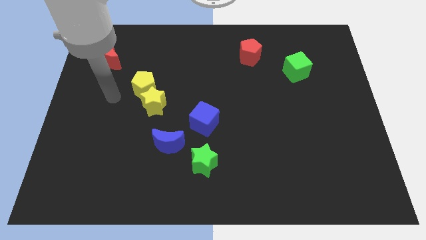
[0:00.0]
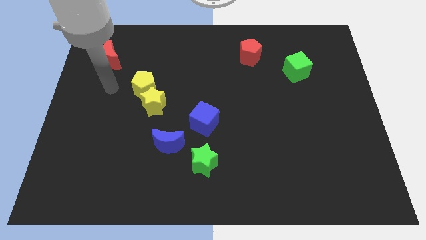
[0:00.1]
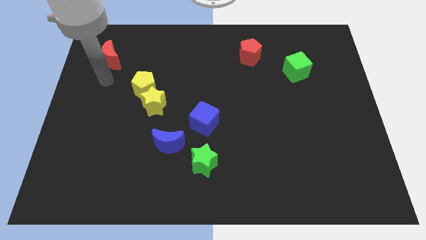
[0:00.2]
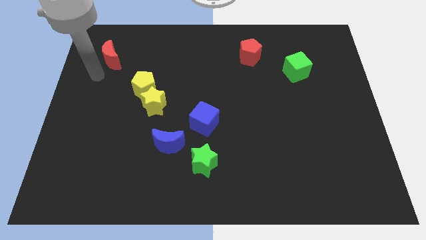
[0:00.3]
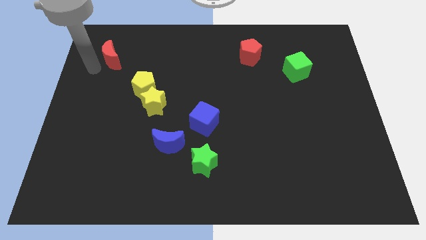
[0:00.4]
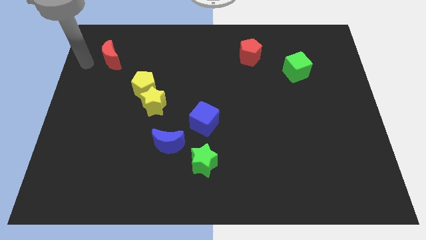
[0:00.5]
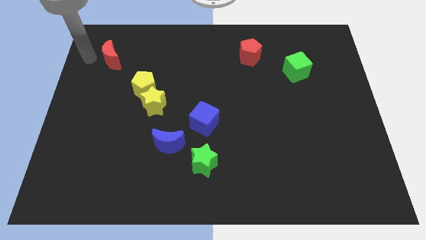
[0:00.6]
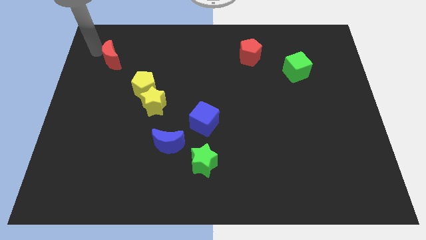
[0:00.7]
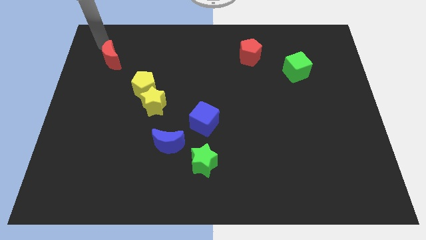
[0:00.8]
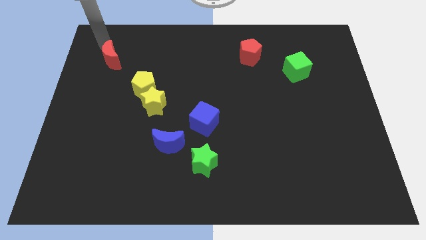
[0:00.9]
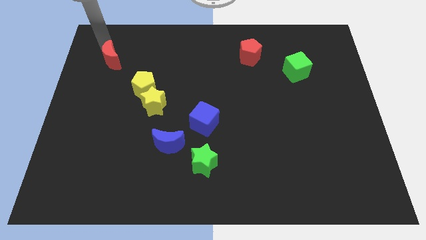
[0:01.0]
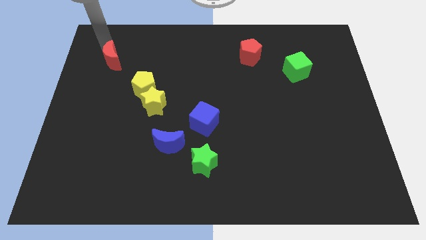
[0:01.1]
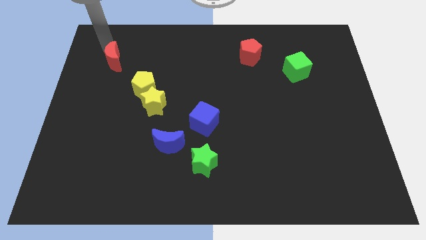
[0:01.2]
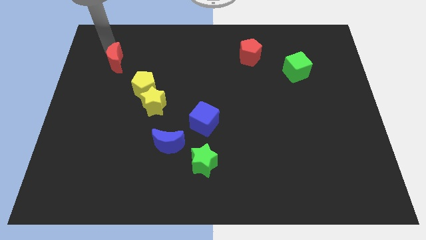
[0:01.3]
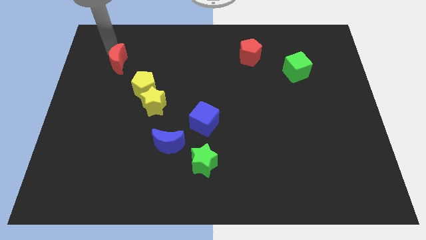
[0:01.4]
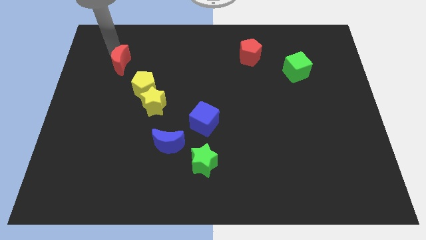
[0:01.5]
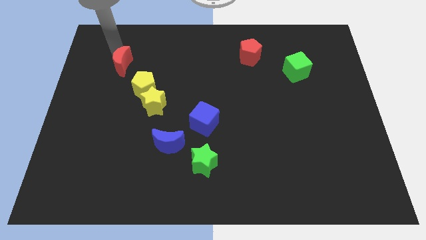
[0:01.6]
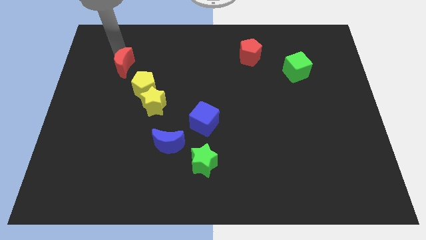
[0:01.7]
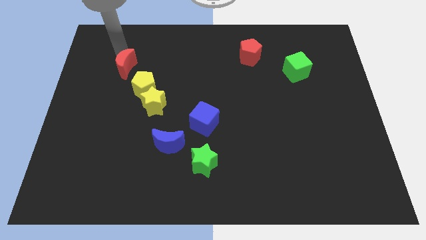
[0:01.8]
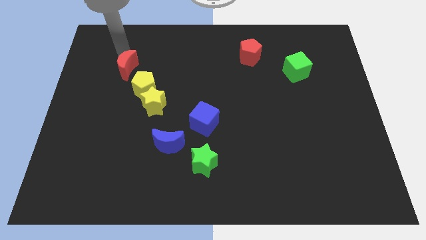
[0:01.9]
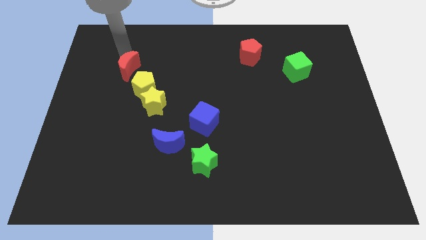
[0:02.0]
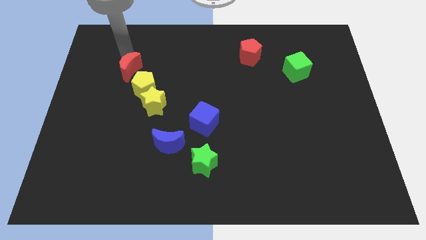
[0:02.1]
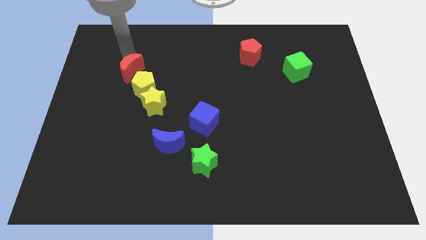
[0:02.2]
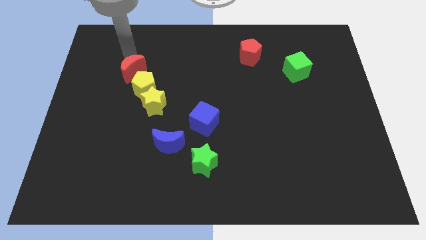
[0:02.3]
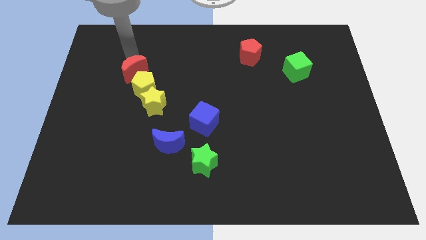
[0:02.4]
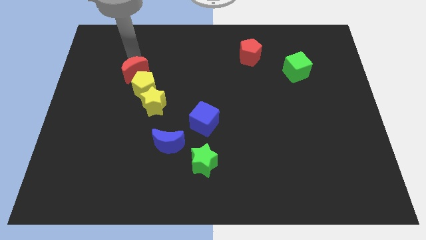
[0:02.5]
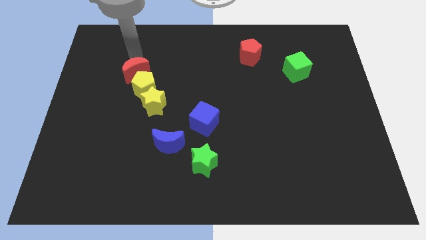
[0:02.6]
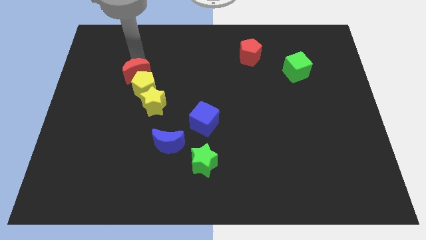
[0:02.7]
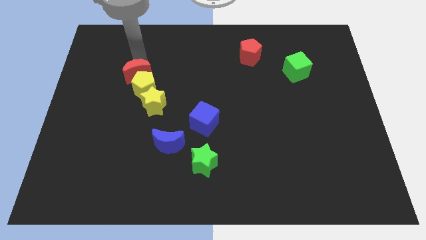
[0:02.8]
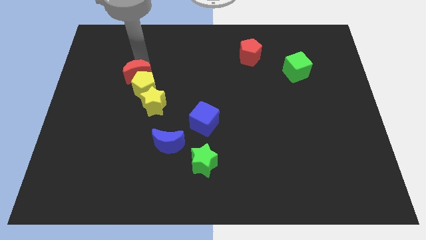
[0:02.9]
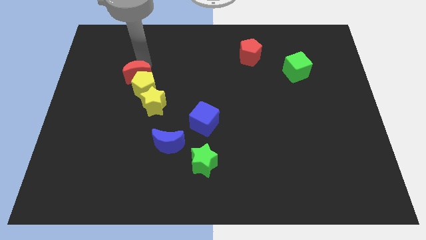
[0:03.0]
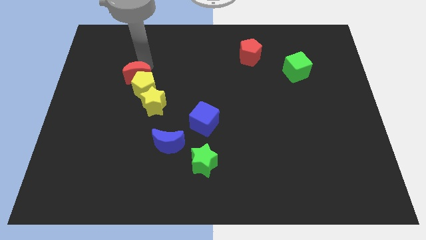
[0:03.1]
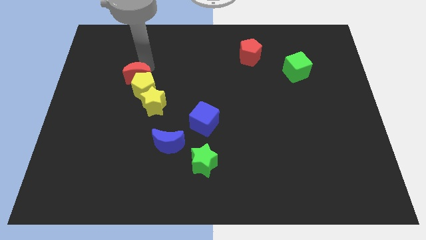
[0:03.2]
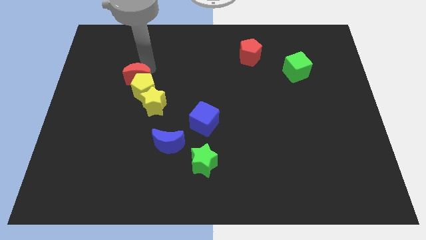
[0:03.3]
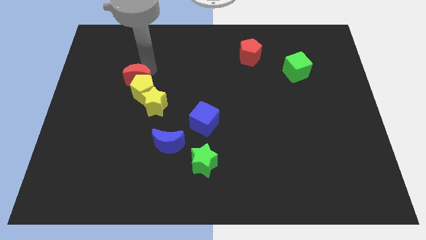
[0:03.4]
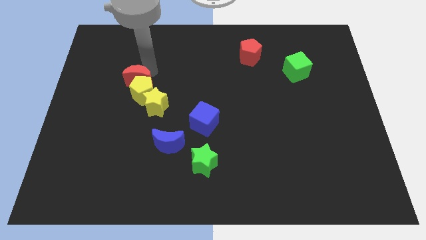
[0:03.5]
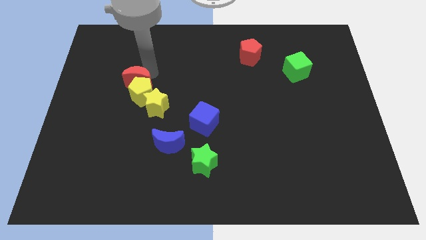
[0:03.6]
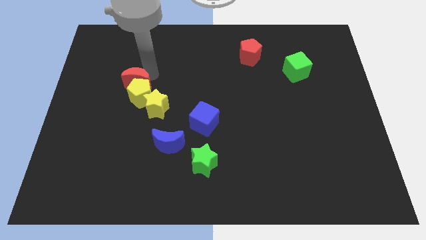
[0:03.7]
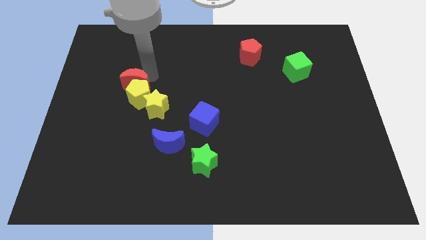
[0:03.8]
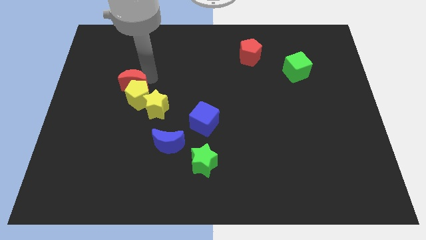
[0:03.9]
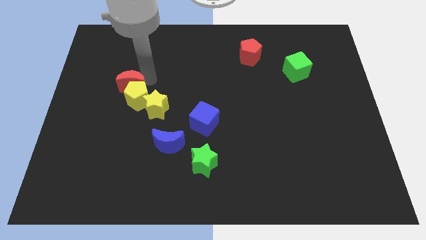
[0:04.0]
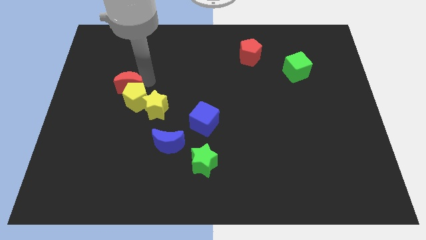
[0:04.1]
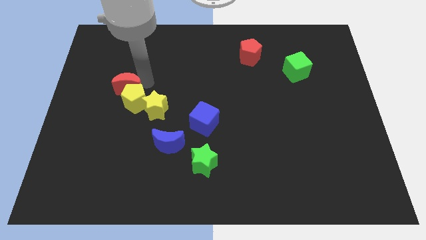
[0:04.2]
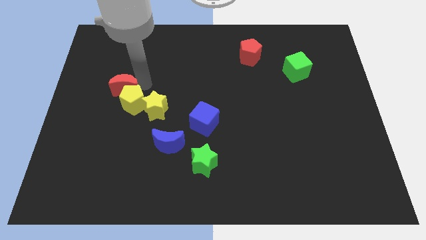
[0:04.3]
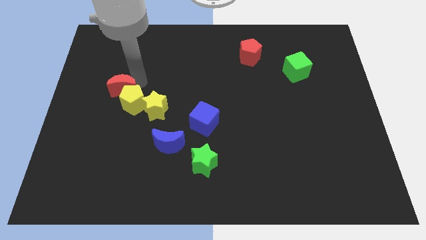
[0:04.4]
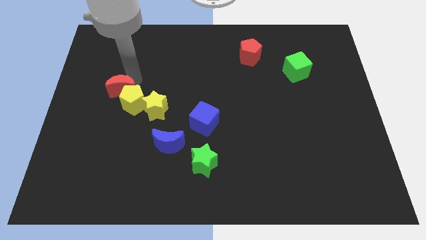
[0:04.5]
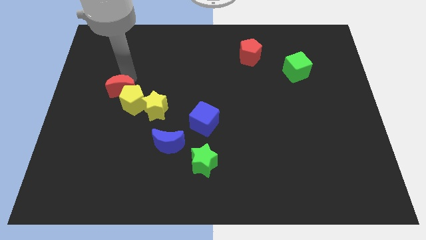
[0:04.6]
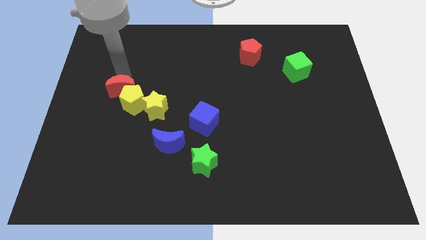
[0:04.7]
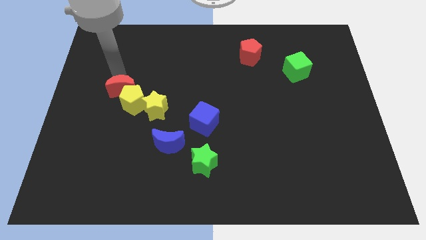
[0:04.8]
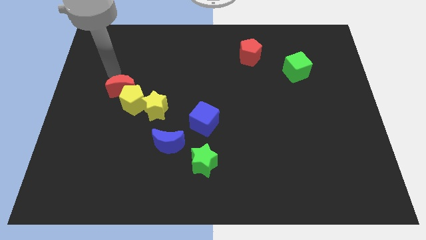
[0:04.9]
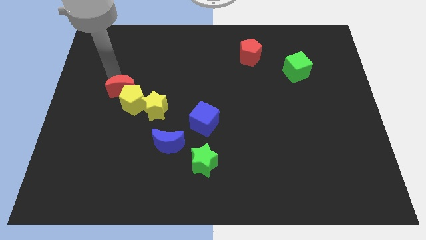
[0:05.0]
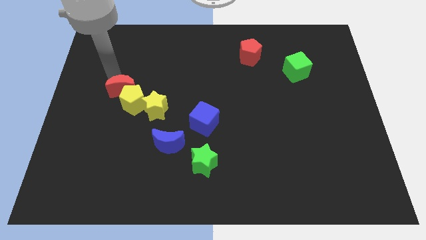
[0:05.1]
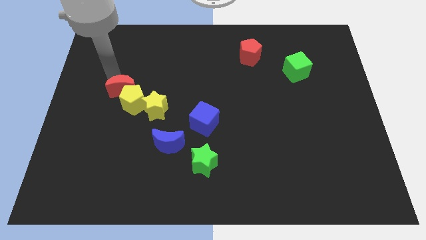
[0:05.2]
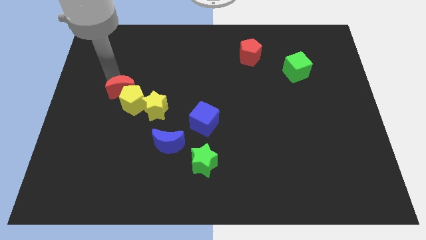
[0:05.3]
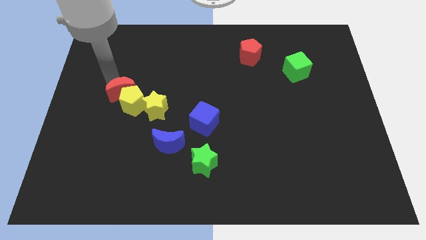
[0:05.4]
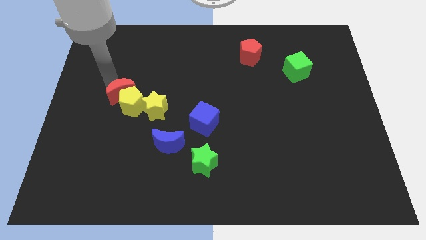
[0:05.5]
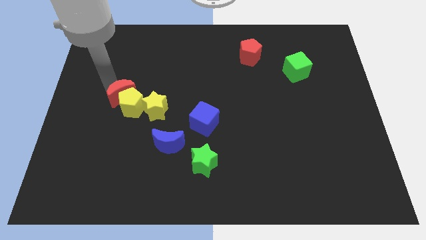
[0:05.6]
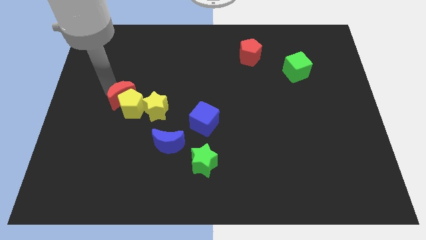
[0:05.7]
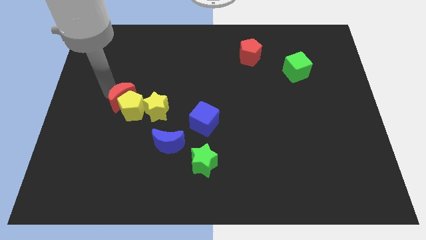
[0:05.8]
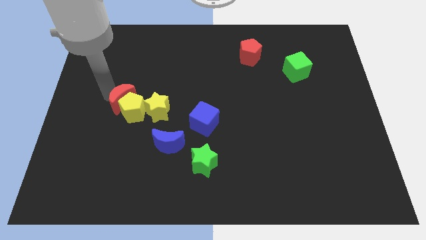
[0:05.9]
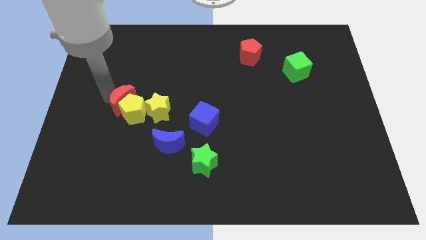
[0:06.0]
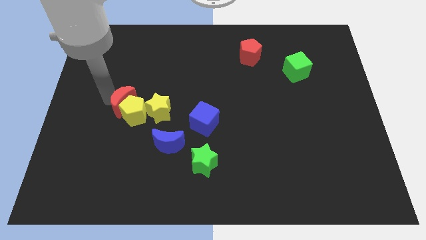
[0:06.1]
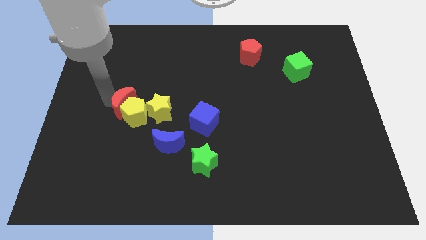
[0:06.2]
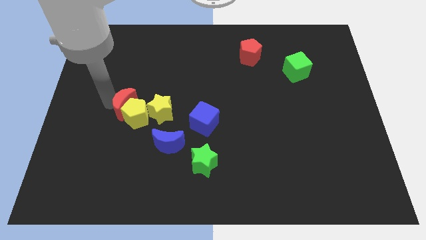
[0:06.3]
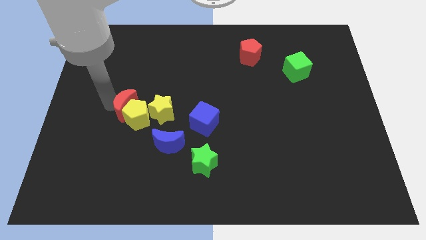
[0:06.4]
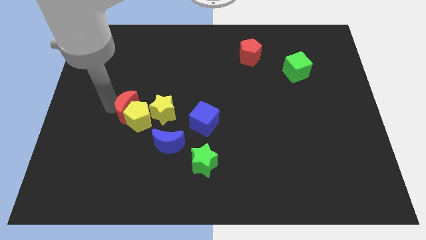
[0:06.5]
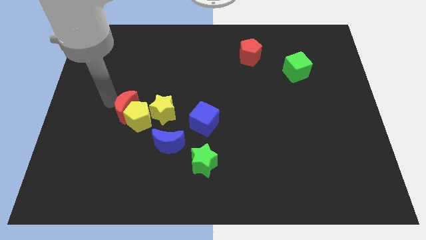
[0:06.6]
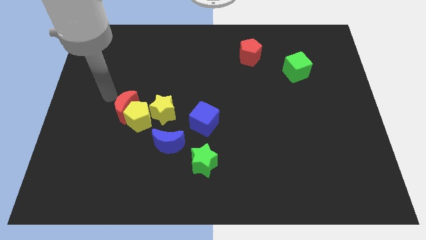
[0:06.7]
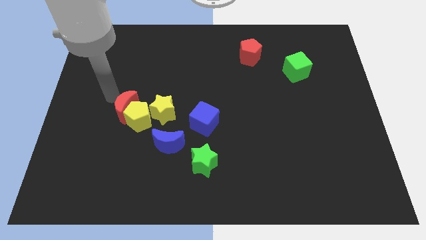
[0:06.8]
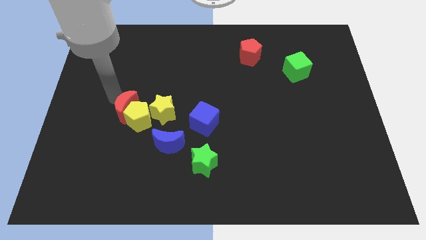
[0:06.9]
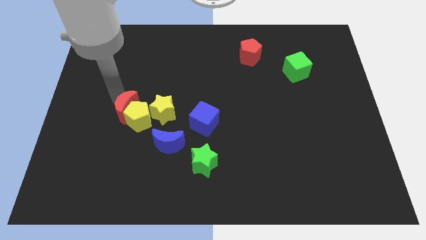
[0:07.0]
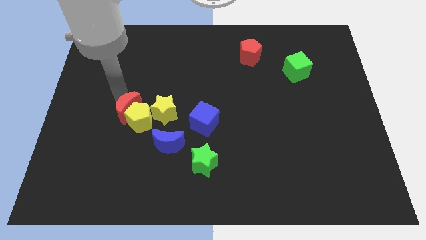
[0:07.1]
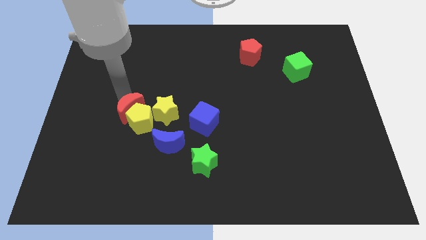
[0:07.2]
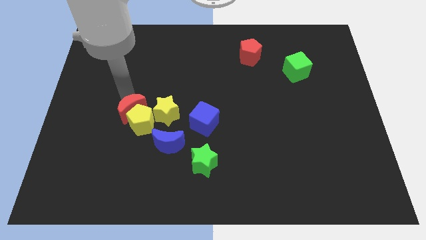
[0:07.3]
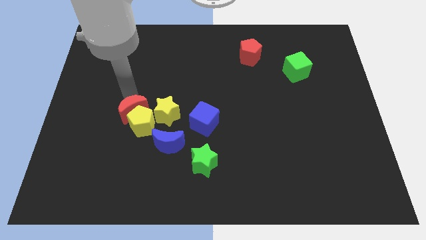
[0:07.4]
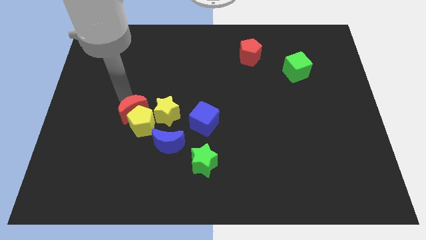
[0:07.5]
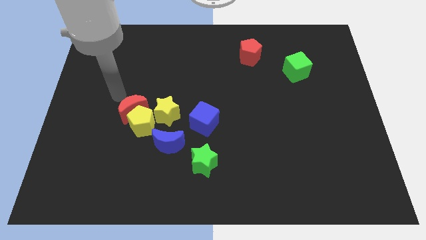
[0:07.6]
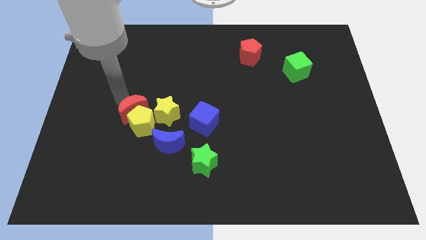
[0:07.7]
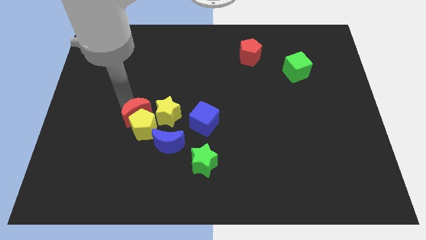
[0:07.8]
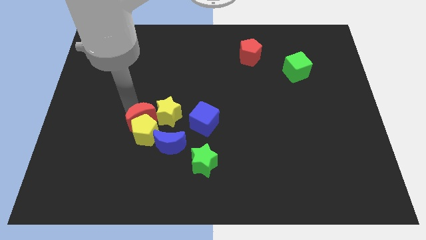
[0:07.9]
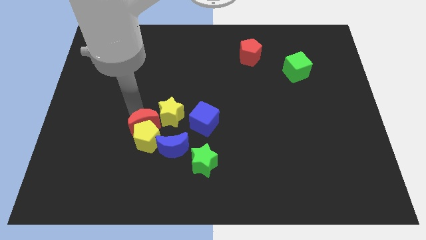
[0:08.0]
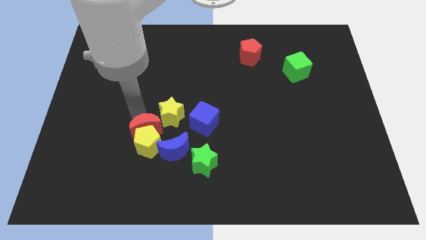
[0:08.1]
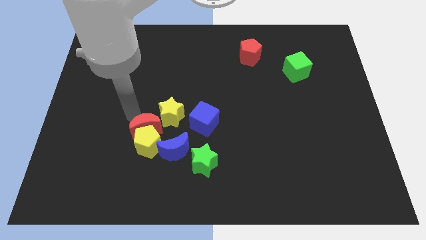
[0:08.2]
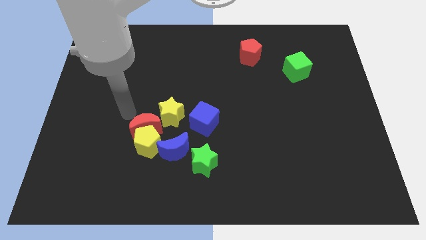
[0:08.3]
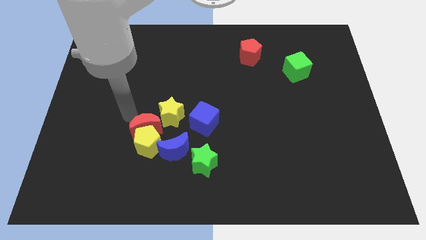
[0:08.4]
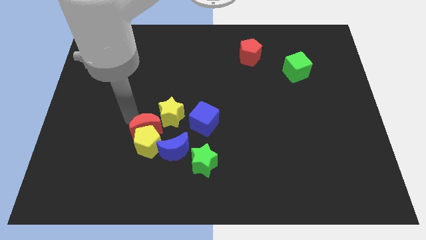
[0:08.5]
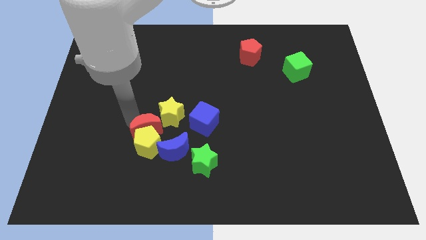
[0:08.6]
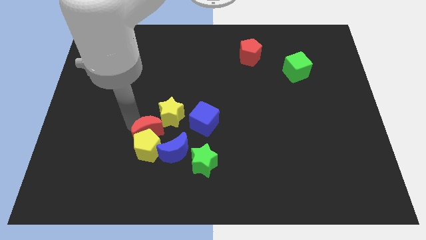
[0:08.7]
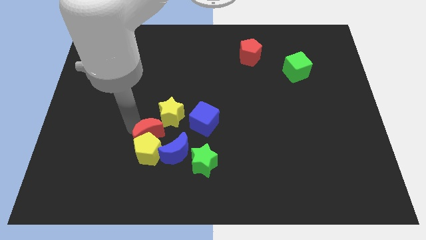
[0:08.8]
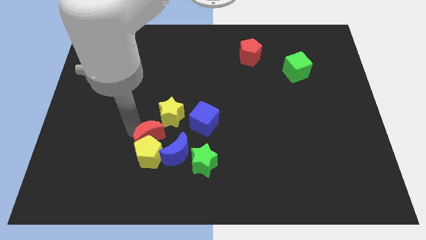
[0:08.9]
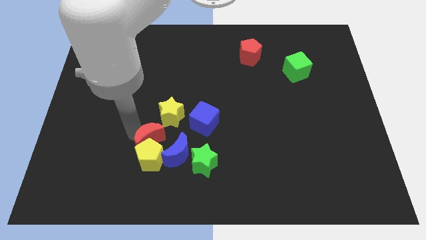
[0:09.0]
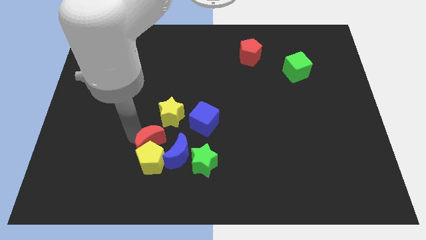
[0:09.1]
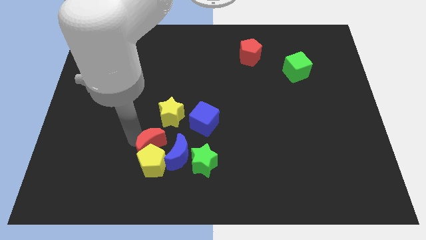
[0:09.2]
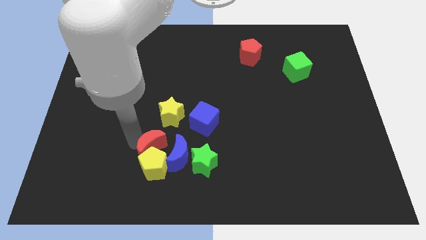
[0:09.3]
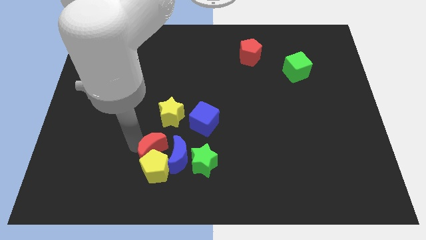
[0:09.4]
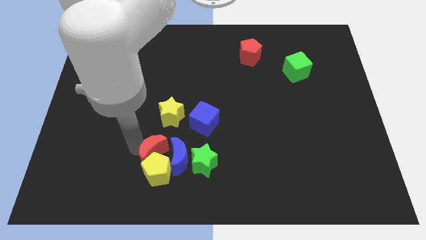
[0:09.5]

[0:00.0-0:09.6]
push the red moon towards the blue moon
